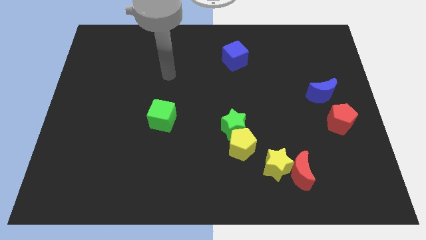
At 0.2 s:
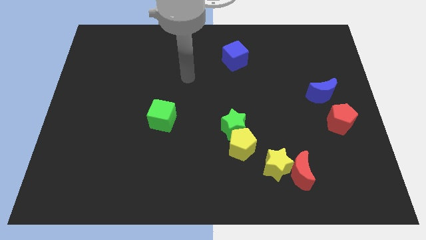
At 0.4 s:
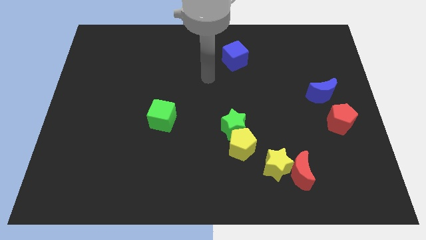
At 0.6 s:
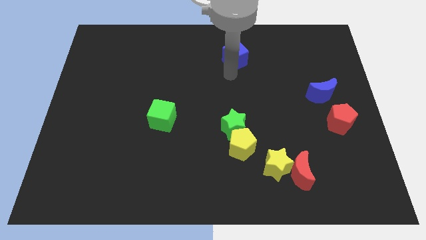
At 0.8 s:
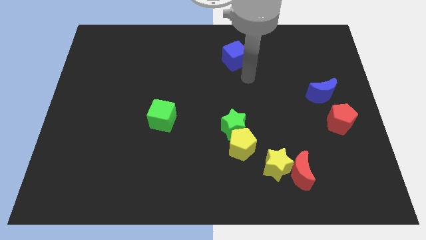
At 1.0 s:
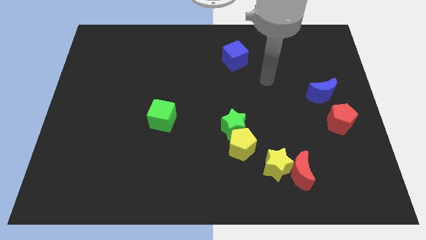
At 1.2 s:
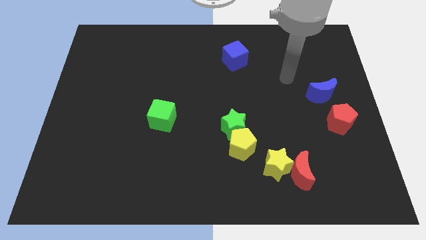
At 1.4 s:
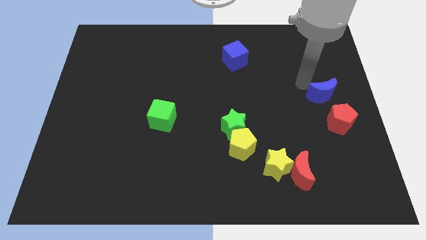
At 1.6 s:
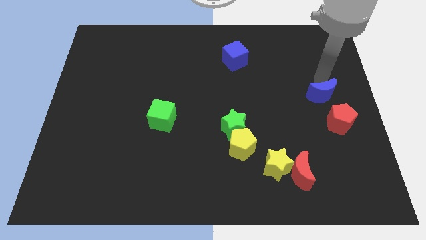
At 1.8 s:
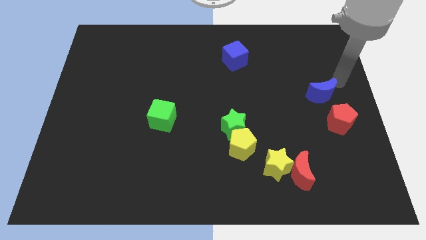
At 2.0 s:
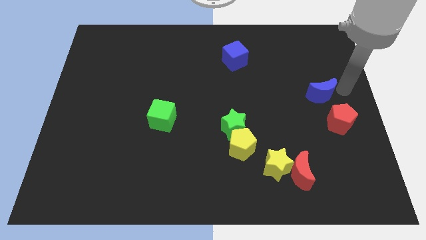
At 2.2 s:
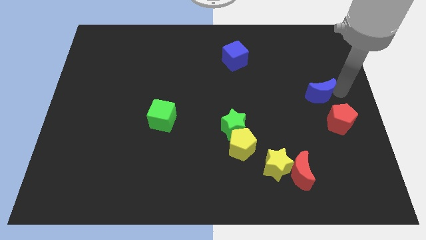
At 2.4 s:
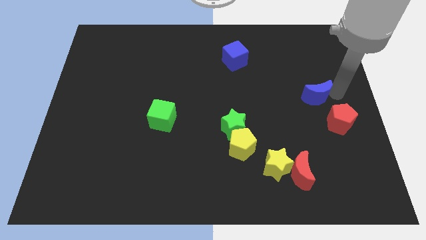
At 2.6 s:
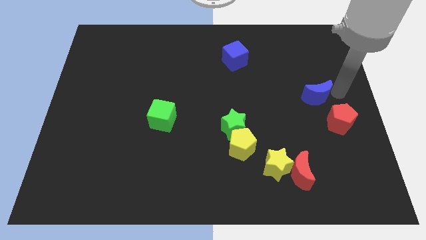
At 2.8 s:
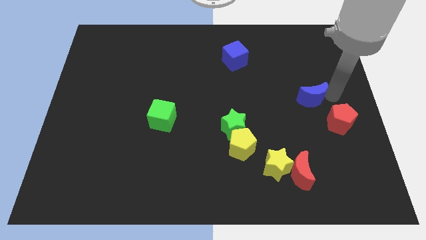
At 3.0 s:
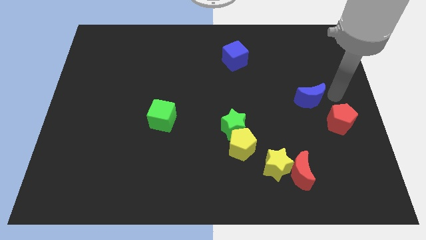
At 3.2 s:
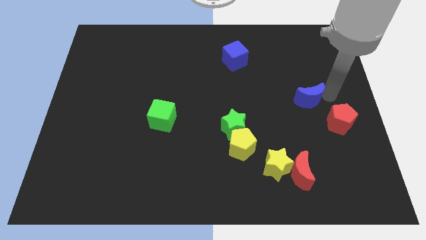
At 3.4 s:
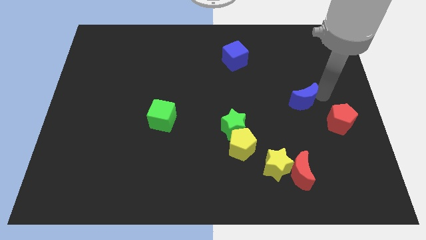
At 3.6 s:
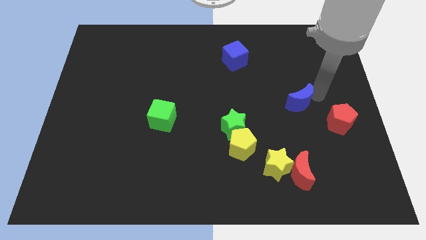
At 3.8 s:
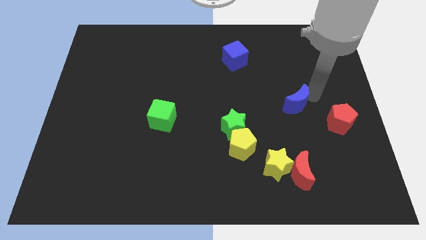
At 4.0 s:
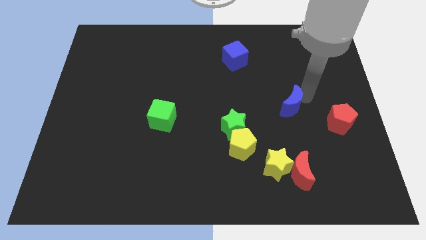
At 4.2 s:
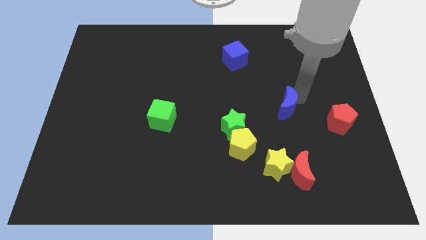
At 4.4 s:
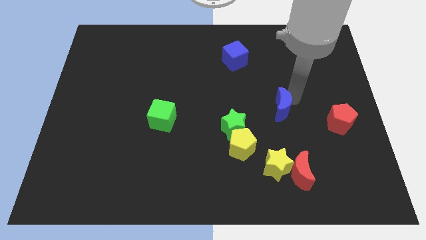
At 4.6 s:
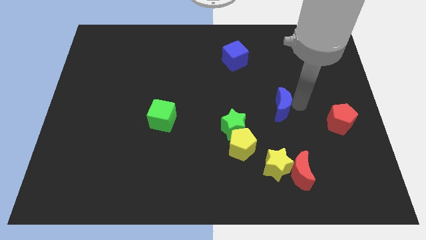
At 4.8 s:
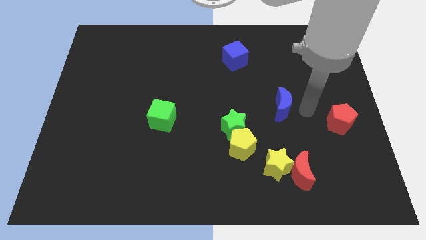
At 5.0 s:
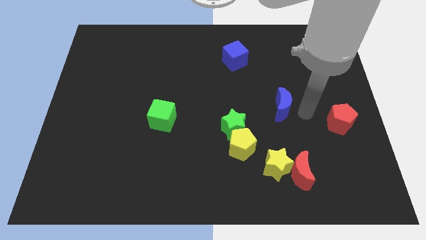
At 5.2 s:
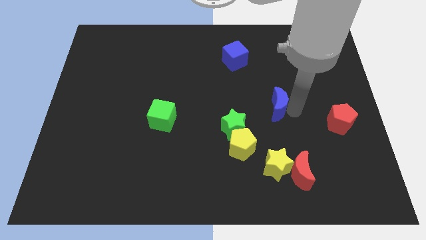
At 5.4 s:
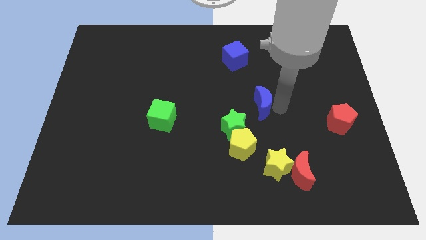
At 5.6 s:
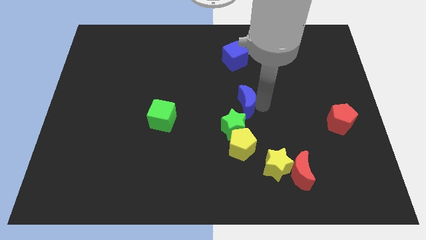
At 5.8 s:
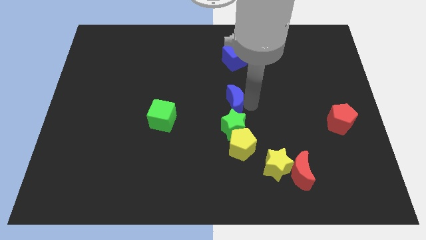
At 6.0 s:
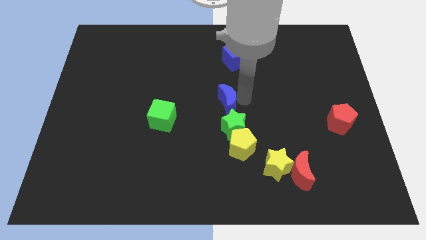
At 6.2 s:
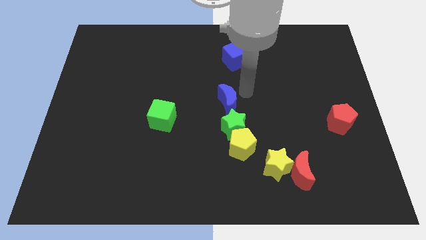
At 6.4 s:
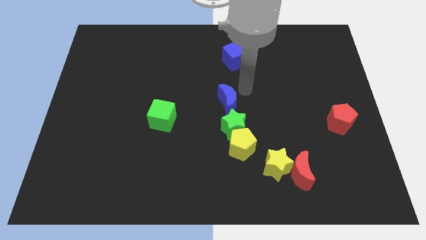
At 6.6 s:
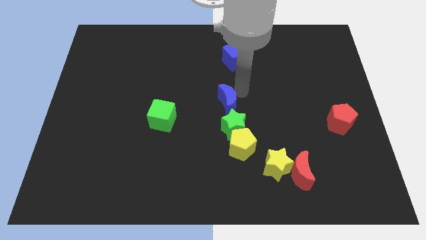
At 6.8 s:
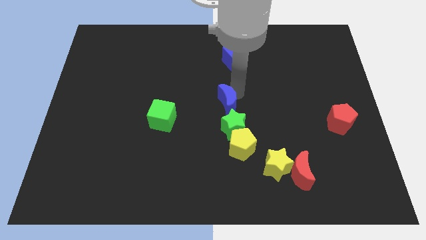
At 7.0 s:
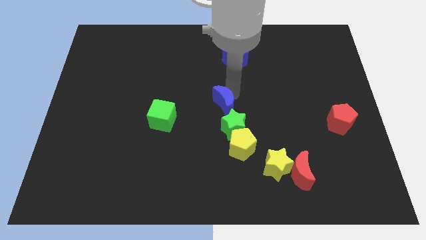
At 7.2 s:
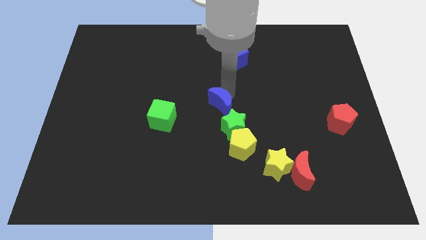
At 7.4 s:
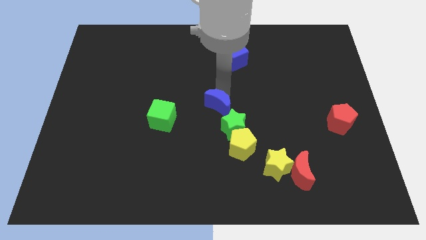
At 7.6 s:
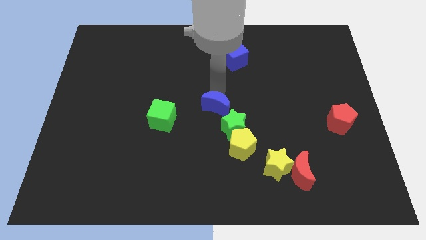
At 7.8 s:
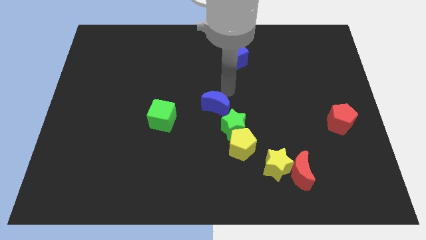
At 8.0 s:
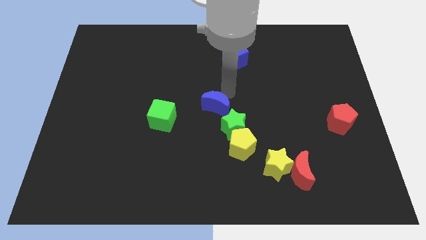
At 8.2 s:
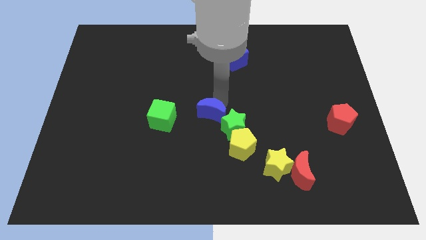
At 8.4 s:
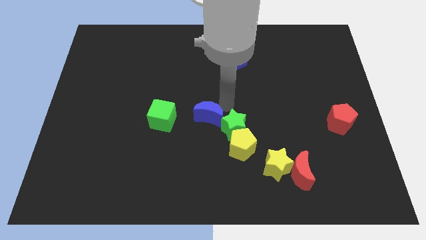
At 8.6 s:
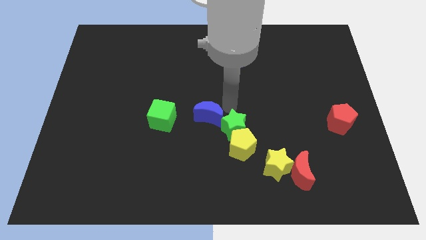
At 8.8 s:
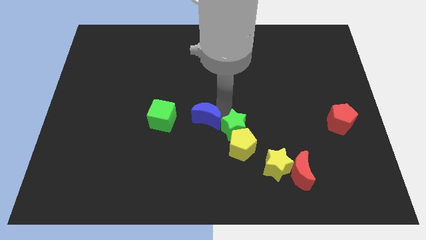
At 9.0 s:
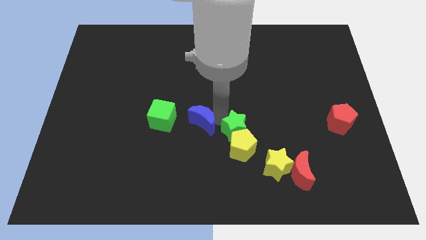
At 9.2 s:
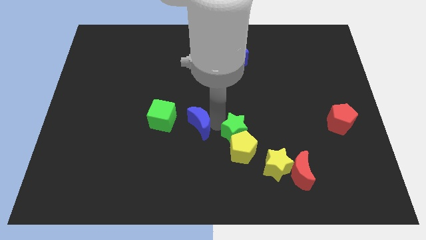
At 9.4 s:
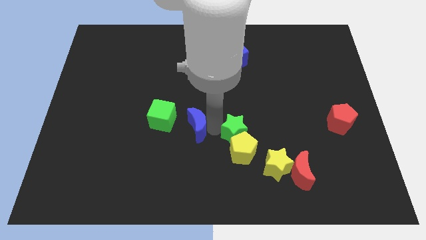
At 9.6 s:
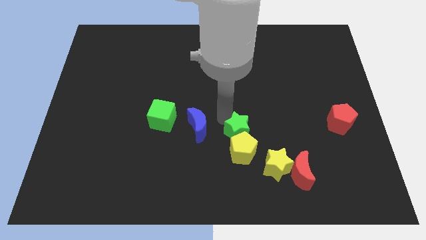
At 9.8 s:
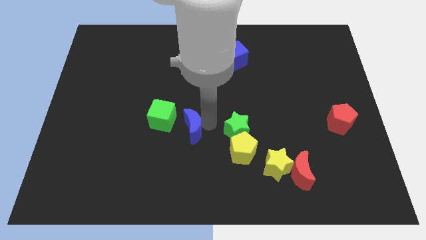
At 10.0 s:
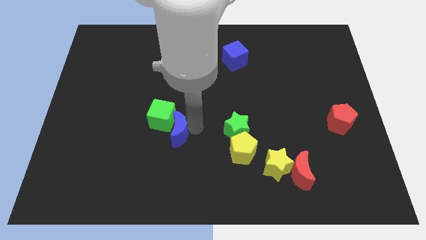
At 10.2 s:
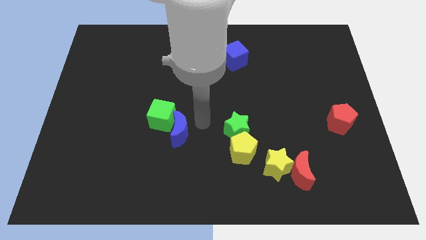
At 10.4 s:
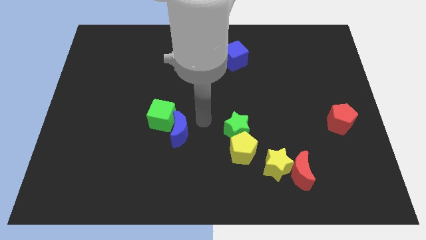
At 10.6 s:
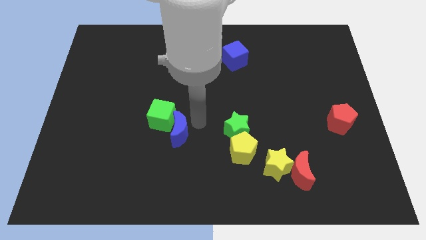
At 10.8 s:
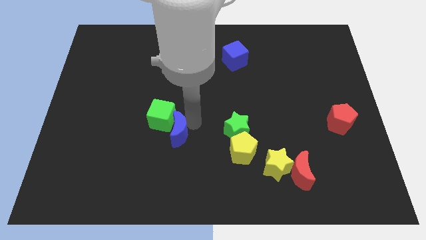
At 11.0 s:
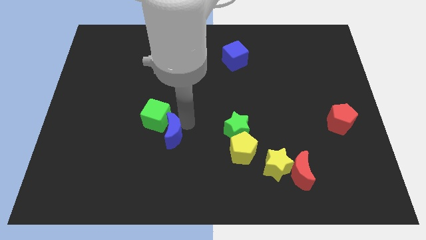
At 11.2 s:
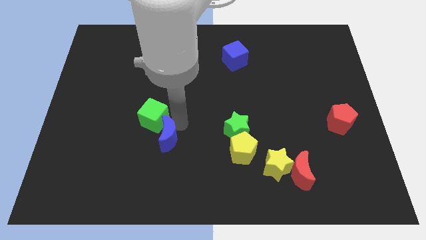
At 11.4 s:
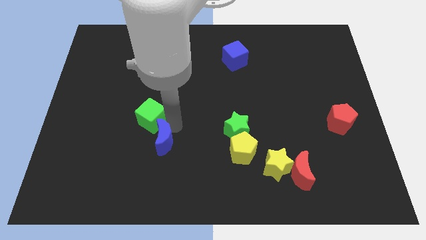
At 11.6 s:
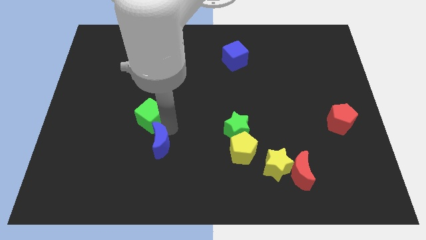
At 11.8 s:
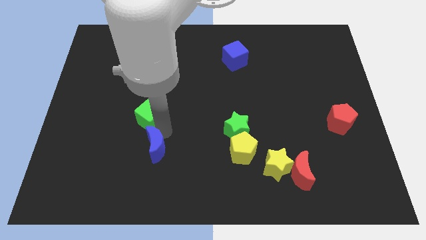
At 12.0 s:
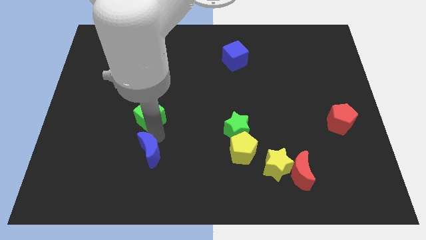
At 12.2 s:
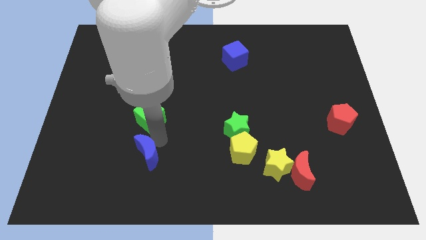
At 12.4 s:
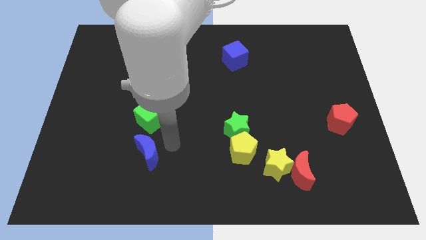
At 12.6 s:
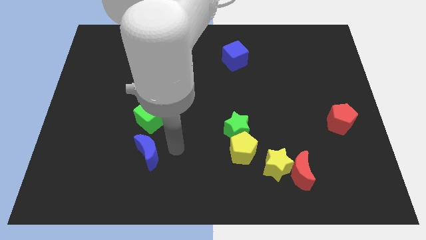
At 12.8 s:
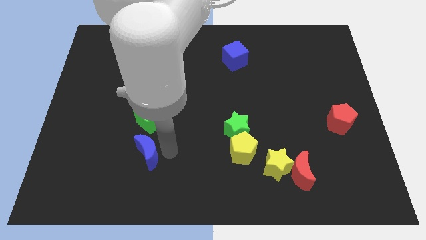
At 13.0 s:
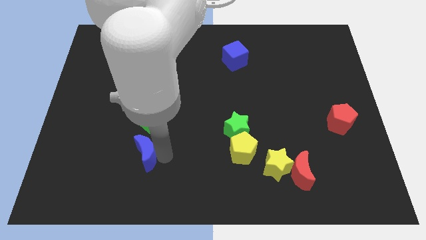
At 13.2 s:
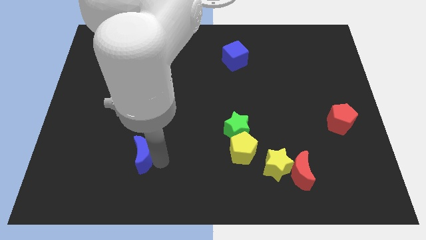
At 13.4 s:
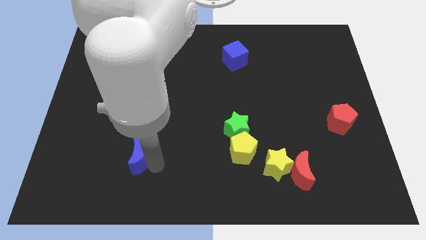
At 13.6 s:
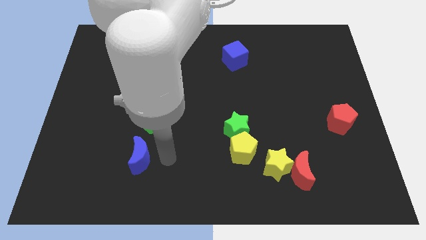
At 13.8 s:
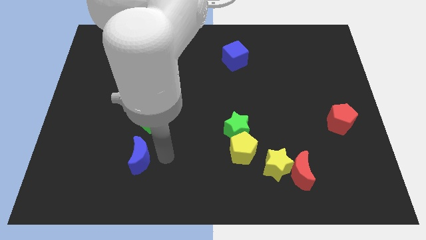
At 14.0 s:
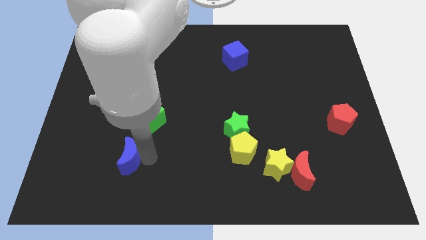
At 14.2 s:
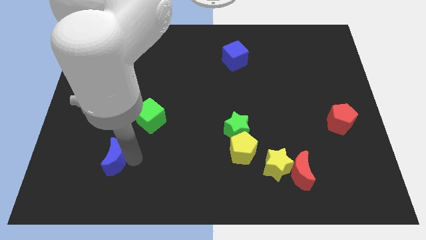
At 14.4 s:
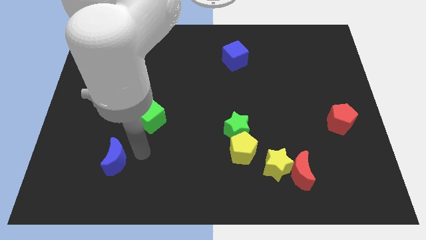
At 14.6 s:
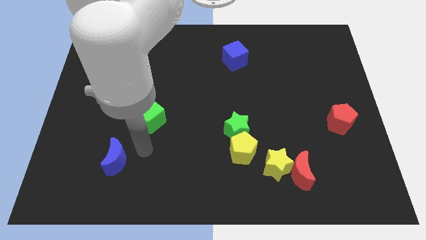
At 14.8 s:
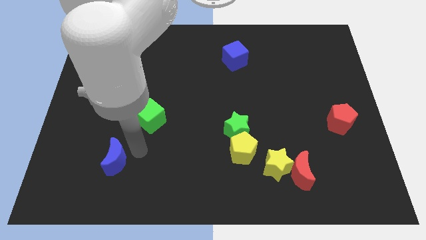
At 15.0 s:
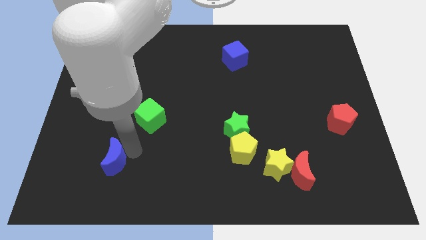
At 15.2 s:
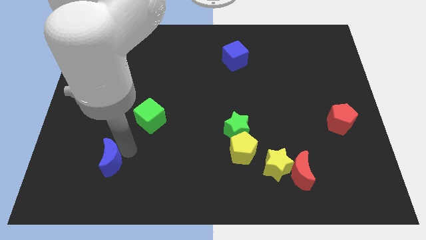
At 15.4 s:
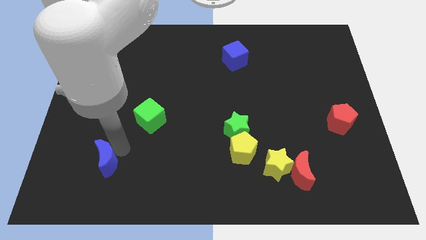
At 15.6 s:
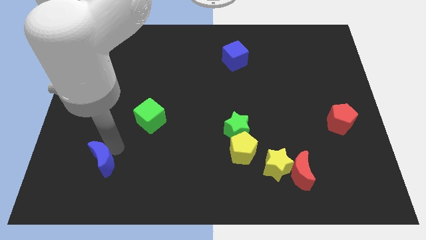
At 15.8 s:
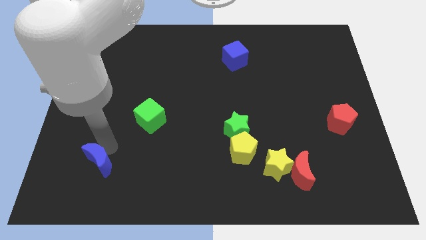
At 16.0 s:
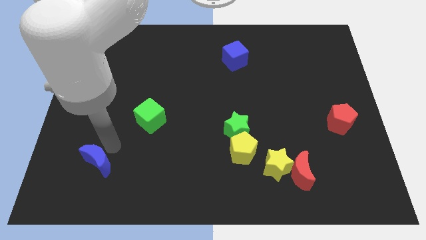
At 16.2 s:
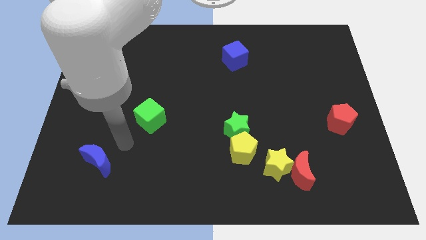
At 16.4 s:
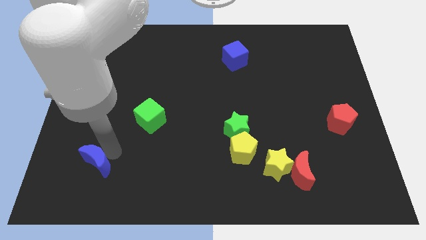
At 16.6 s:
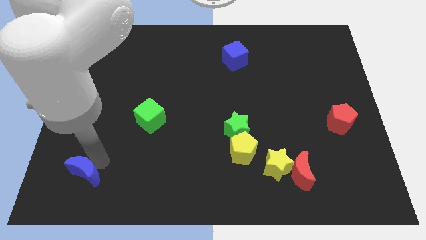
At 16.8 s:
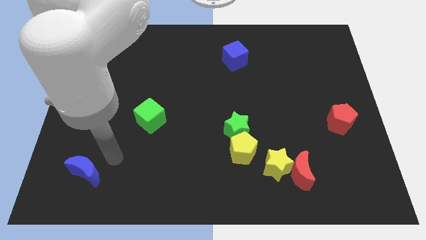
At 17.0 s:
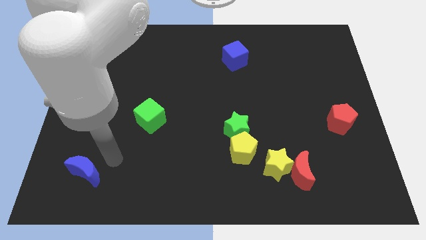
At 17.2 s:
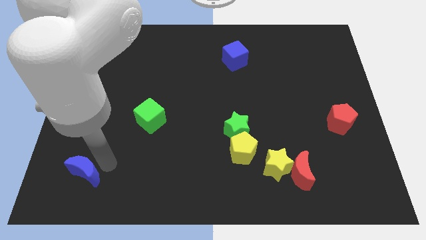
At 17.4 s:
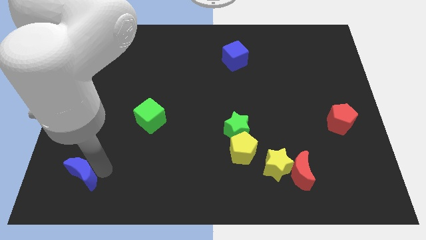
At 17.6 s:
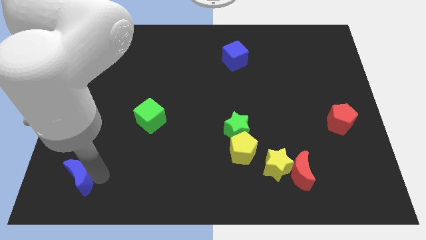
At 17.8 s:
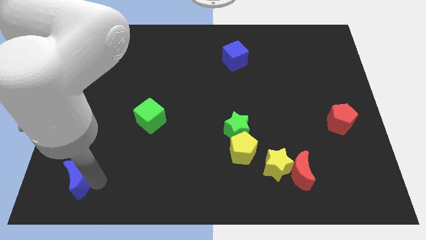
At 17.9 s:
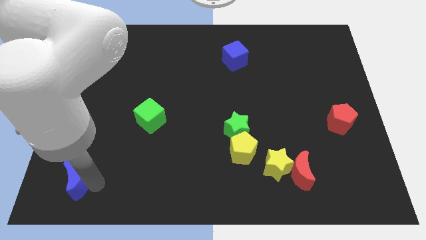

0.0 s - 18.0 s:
move the blue moon to the lower left corner
